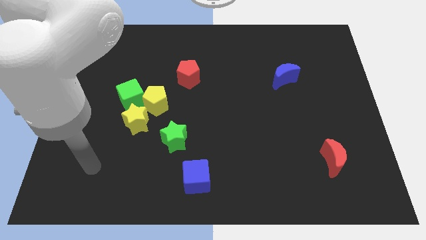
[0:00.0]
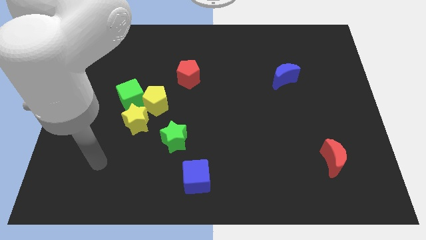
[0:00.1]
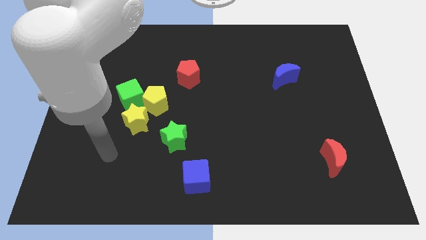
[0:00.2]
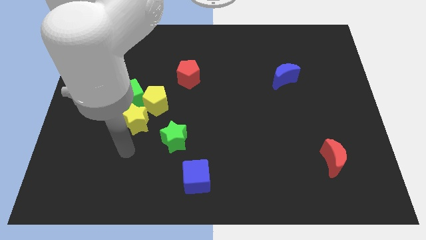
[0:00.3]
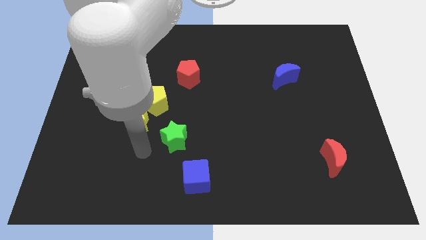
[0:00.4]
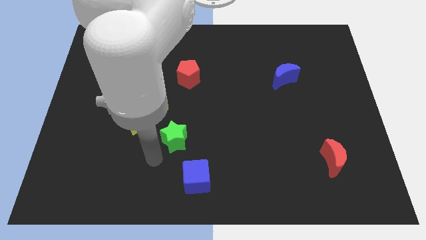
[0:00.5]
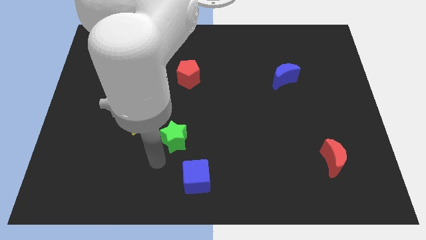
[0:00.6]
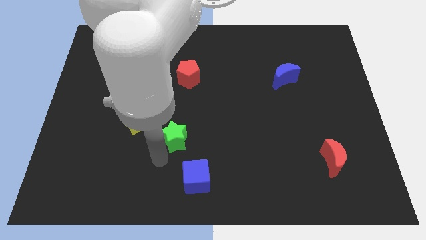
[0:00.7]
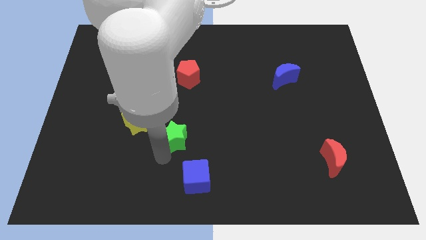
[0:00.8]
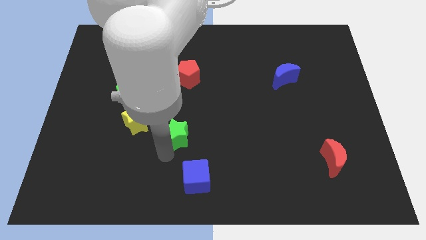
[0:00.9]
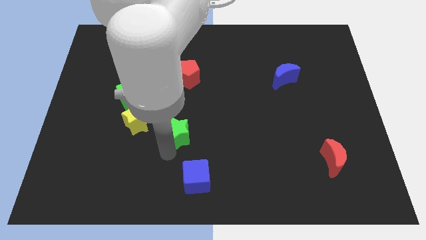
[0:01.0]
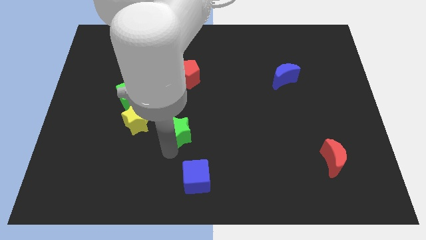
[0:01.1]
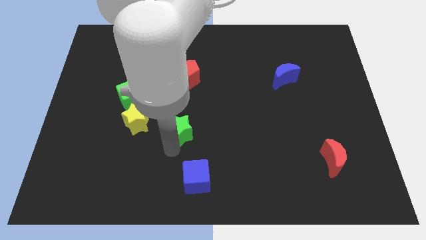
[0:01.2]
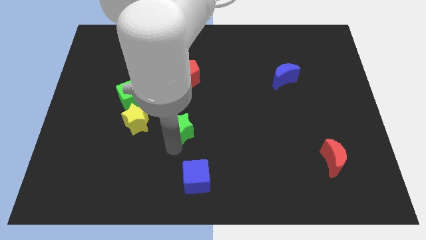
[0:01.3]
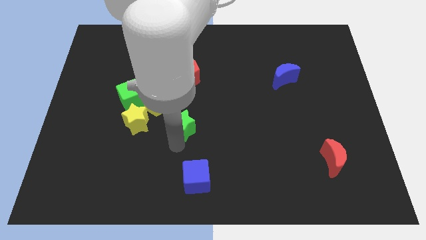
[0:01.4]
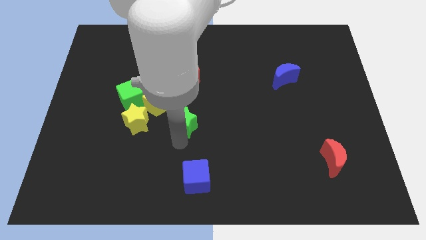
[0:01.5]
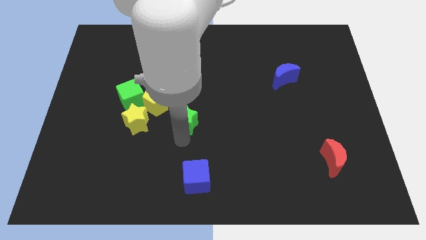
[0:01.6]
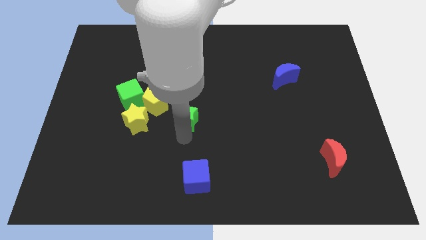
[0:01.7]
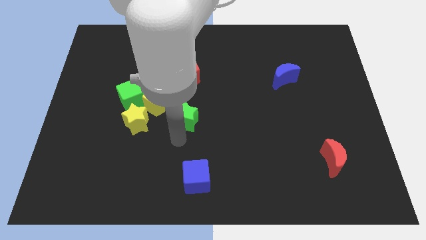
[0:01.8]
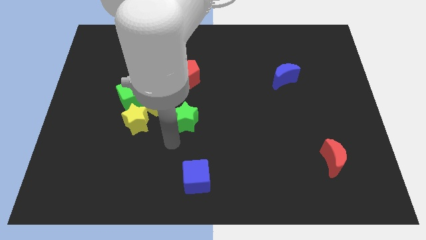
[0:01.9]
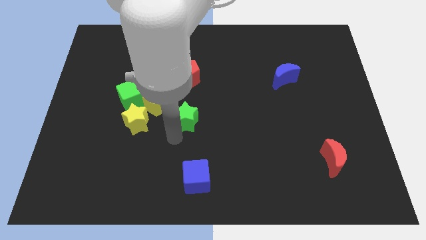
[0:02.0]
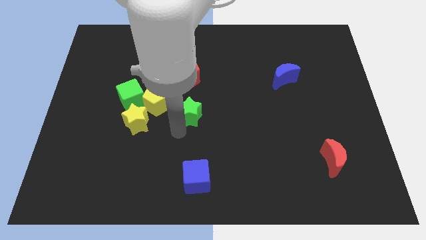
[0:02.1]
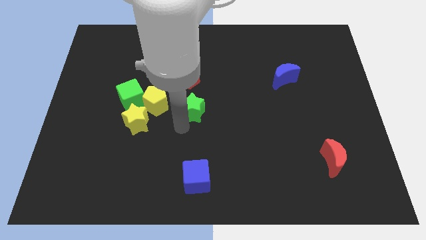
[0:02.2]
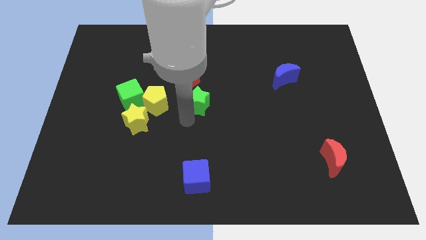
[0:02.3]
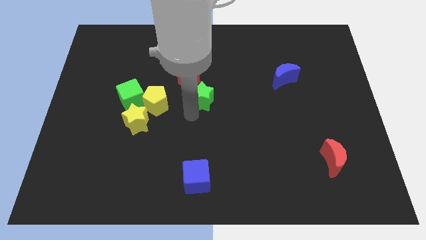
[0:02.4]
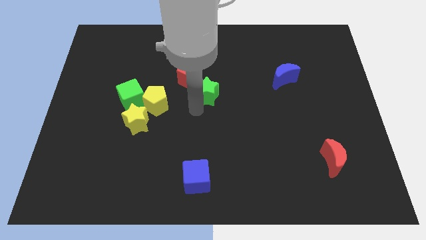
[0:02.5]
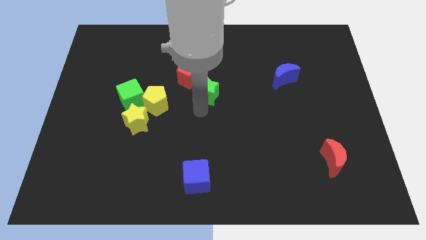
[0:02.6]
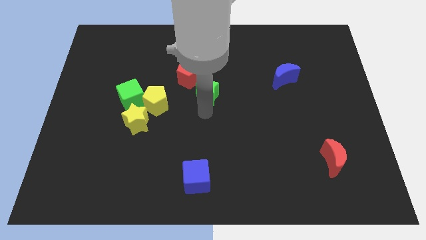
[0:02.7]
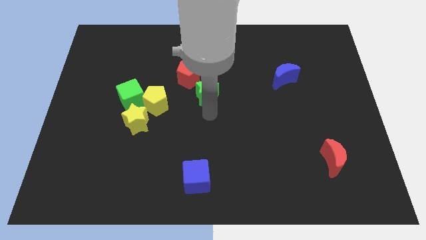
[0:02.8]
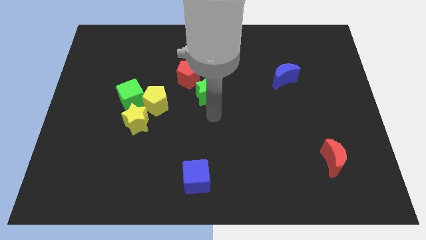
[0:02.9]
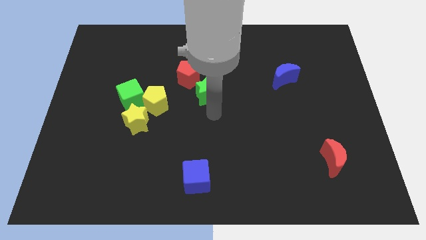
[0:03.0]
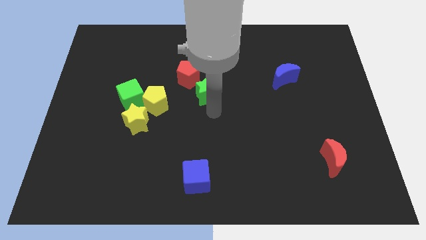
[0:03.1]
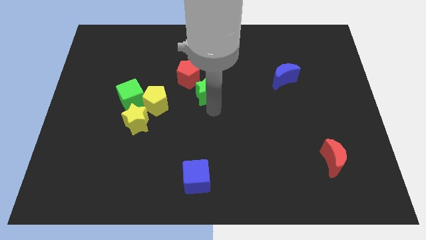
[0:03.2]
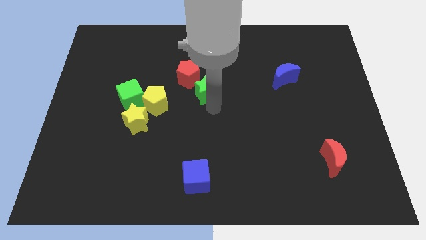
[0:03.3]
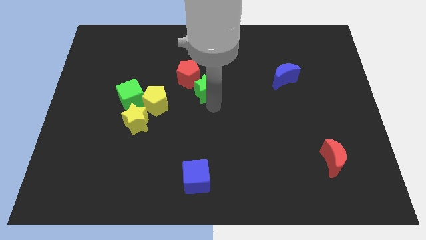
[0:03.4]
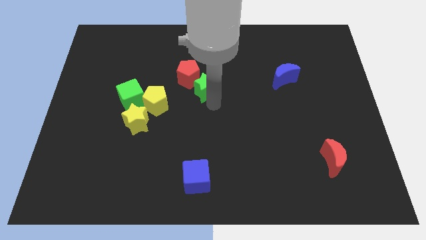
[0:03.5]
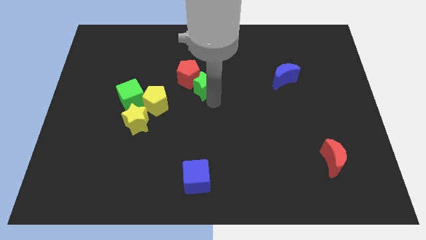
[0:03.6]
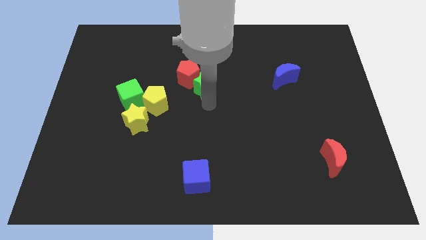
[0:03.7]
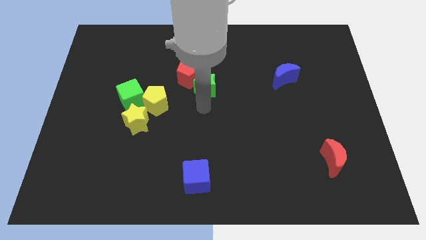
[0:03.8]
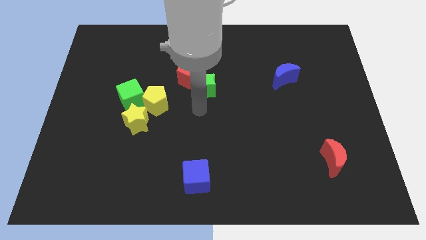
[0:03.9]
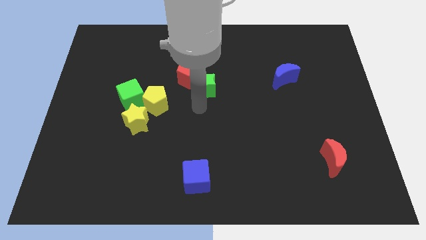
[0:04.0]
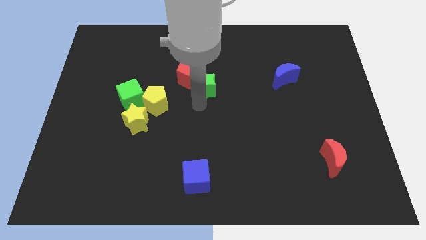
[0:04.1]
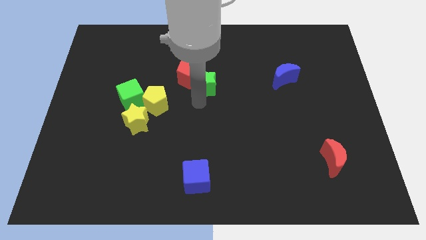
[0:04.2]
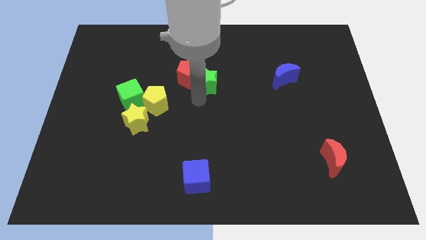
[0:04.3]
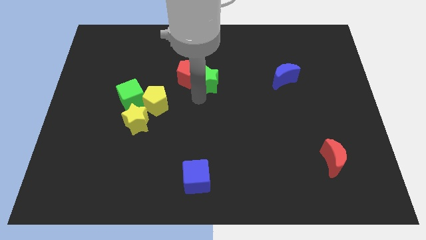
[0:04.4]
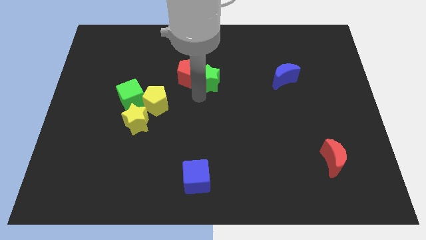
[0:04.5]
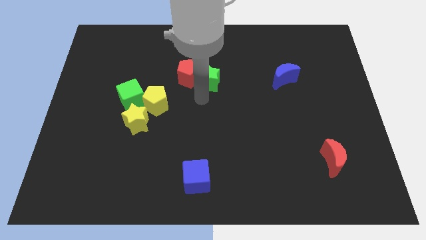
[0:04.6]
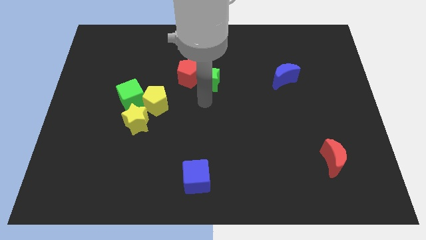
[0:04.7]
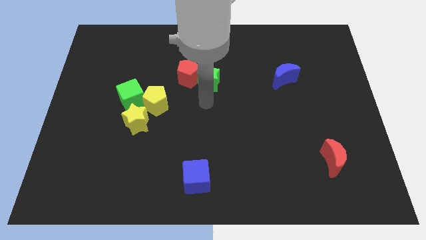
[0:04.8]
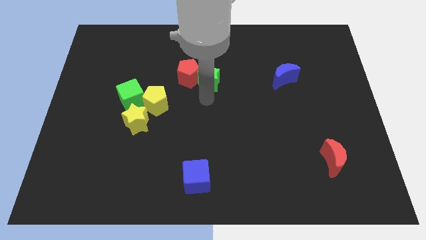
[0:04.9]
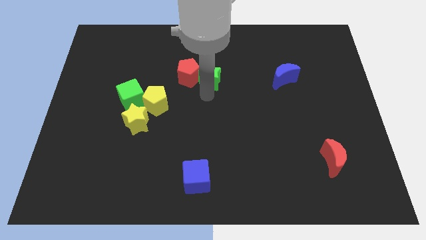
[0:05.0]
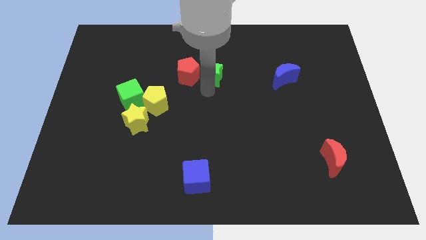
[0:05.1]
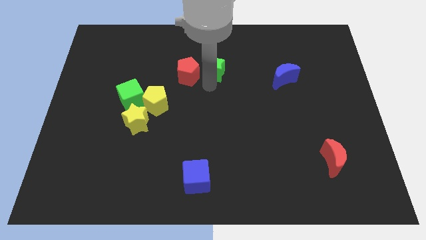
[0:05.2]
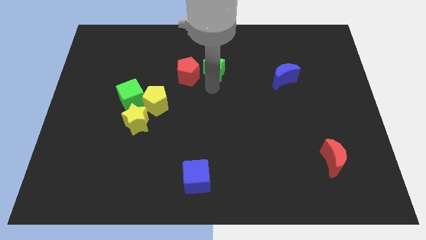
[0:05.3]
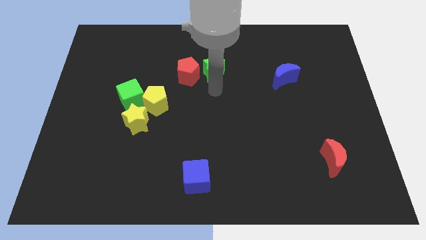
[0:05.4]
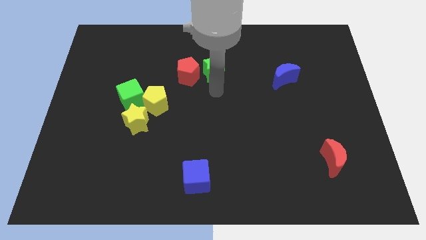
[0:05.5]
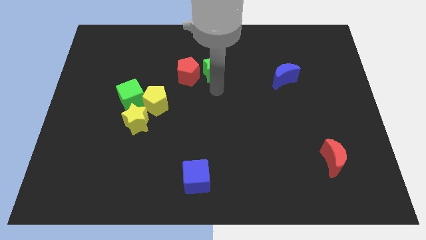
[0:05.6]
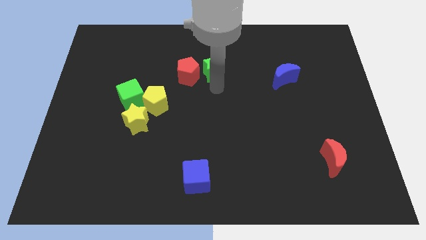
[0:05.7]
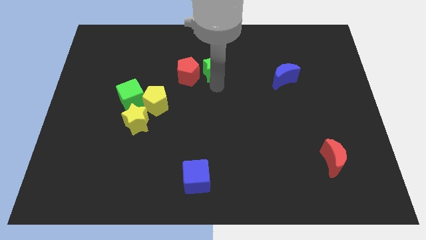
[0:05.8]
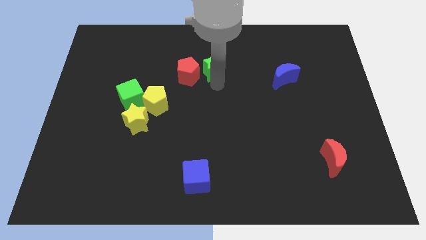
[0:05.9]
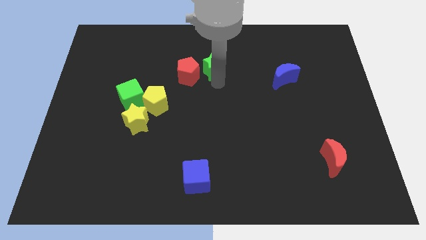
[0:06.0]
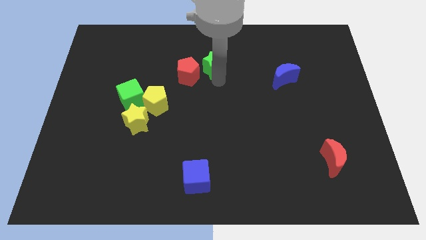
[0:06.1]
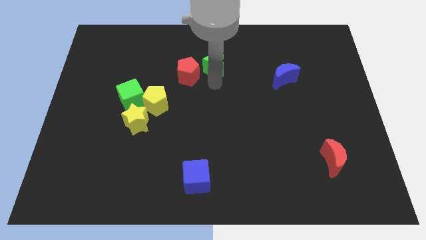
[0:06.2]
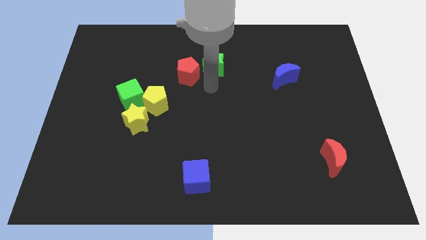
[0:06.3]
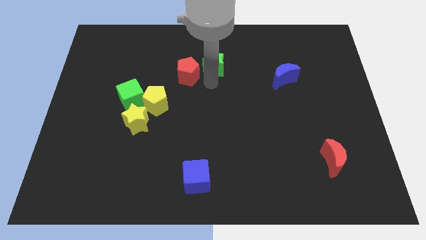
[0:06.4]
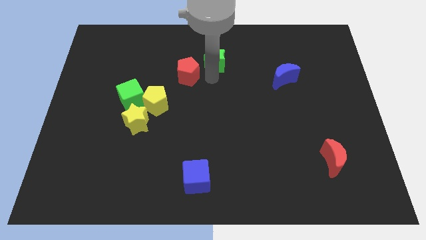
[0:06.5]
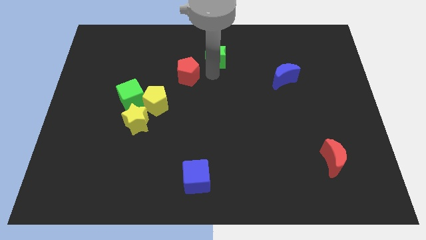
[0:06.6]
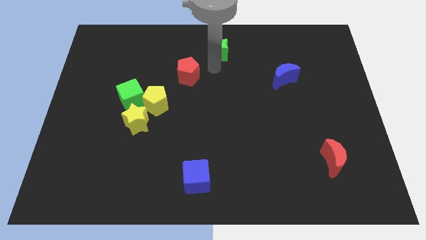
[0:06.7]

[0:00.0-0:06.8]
put the green star to the top side
